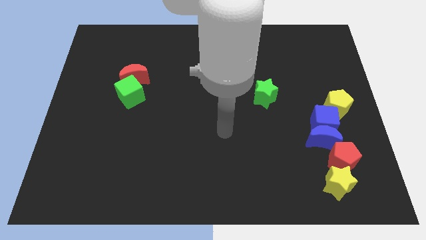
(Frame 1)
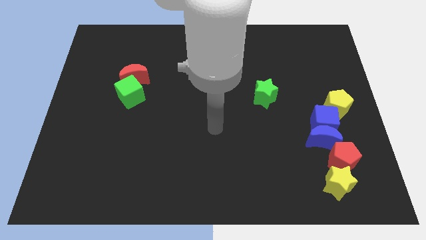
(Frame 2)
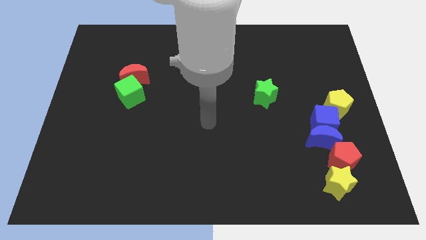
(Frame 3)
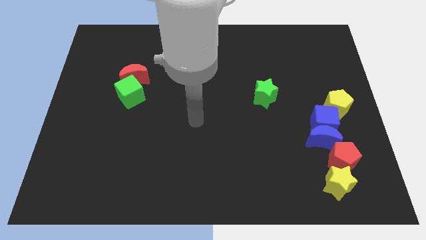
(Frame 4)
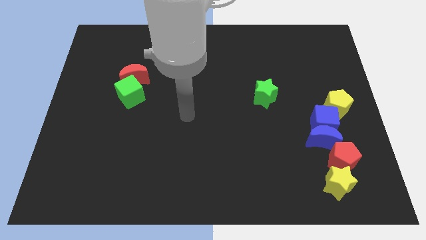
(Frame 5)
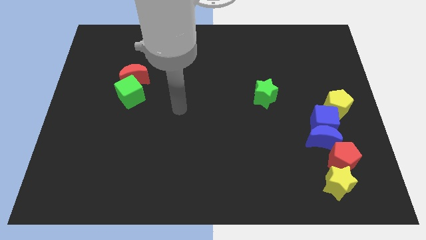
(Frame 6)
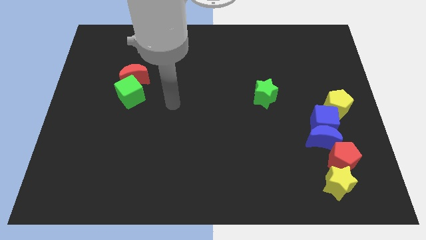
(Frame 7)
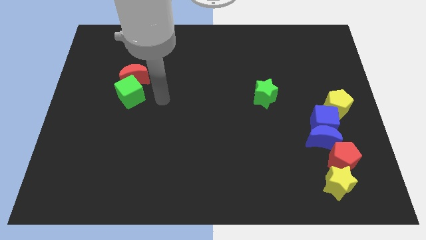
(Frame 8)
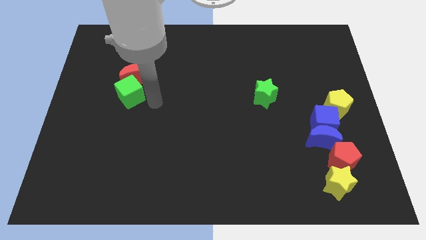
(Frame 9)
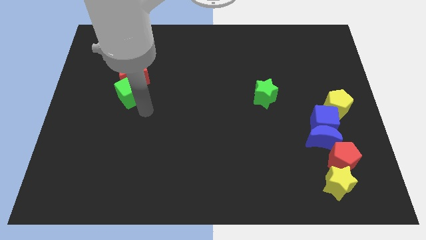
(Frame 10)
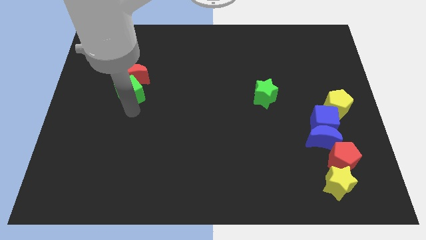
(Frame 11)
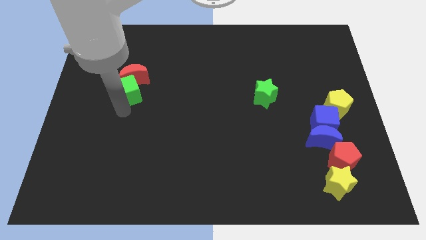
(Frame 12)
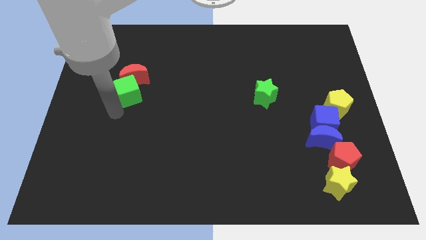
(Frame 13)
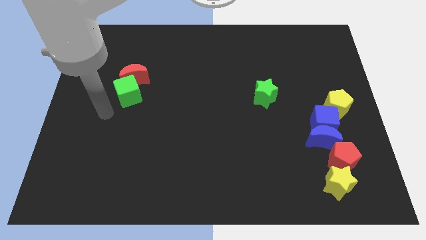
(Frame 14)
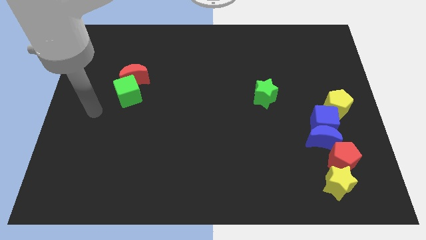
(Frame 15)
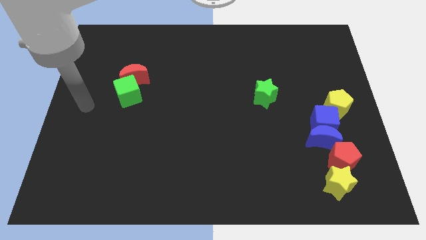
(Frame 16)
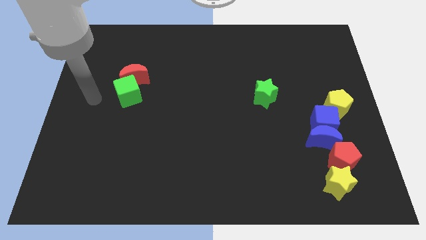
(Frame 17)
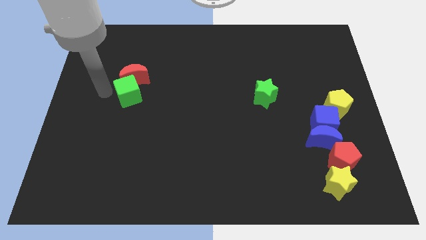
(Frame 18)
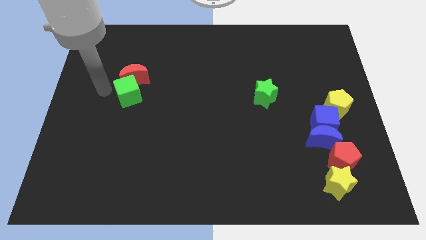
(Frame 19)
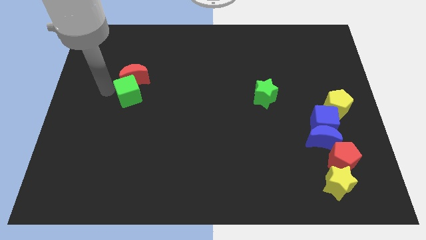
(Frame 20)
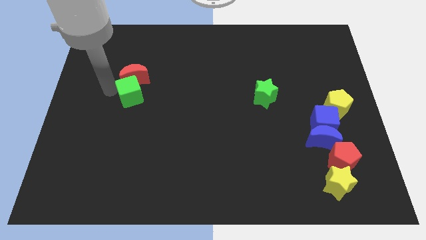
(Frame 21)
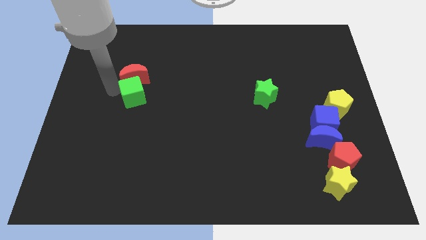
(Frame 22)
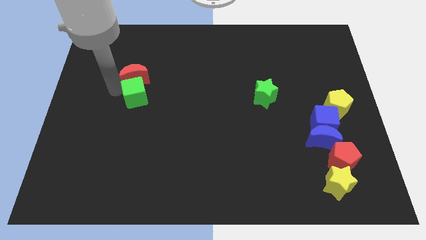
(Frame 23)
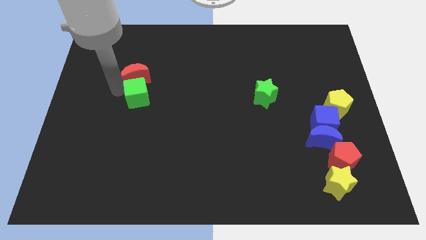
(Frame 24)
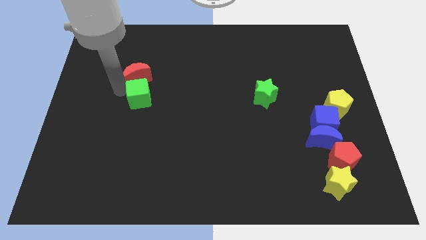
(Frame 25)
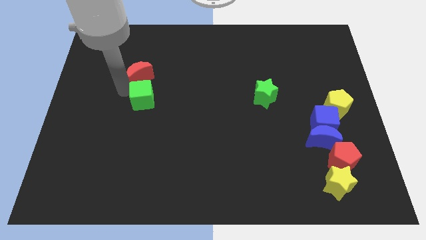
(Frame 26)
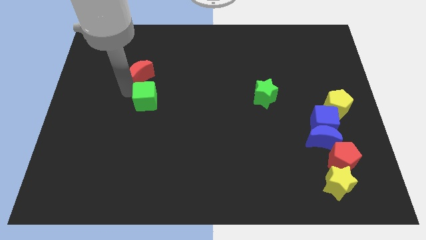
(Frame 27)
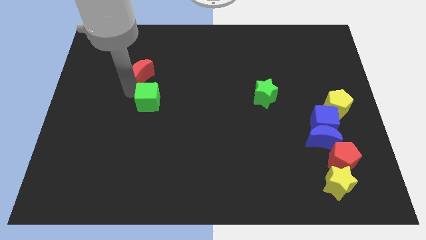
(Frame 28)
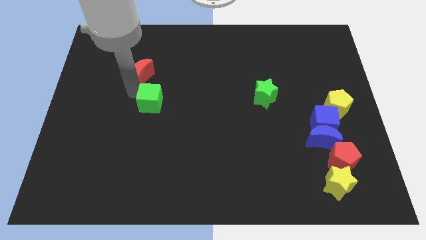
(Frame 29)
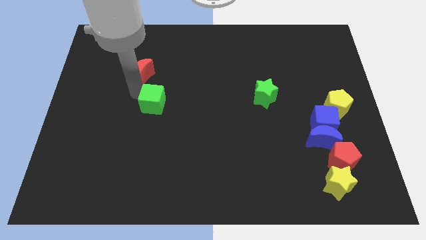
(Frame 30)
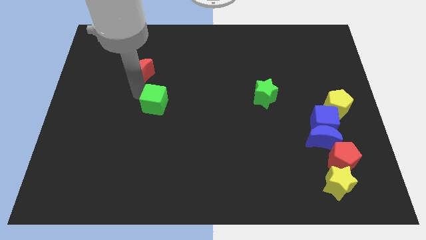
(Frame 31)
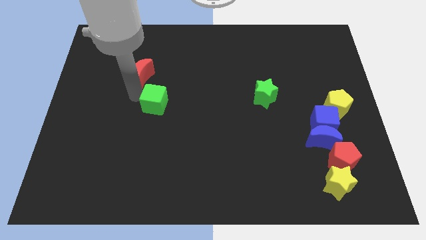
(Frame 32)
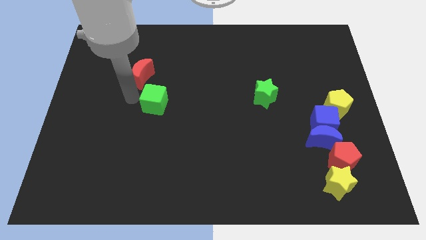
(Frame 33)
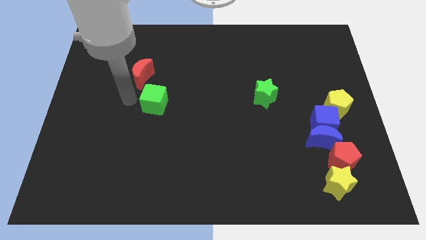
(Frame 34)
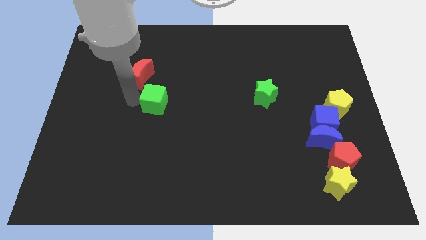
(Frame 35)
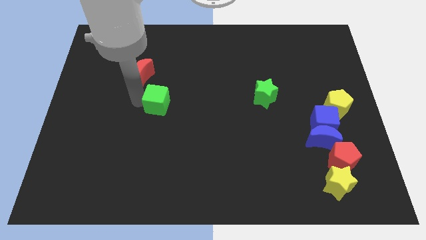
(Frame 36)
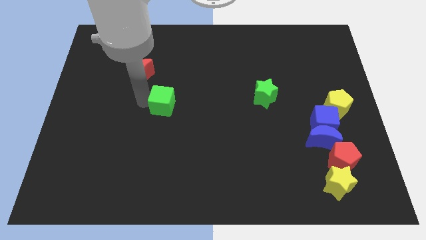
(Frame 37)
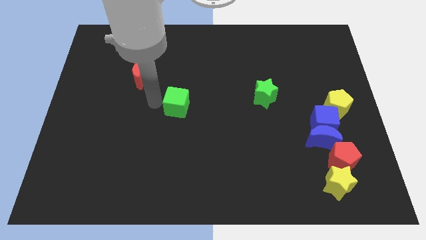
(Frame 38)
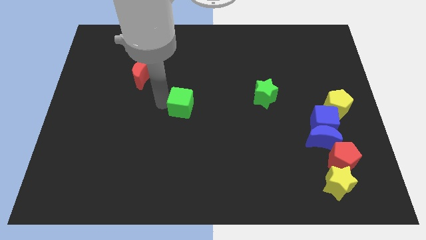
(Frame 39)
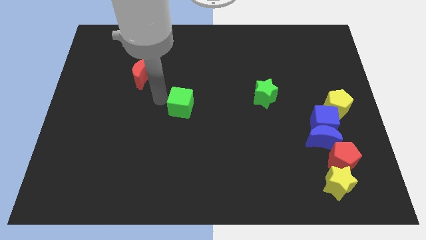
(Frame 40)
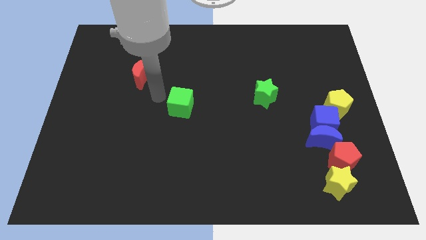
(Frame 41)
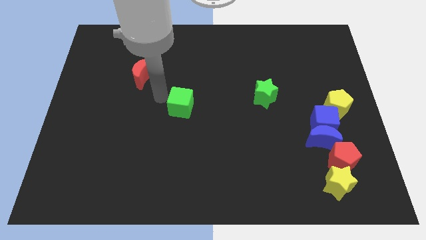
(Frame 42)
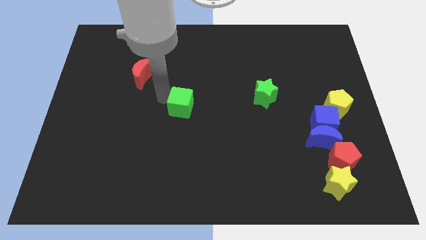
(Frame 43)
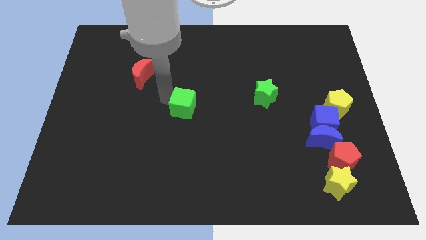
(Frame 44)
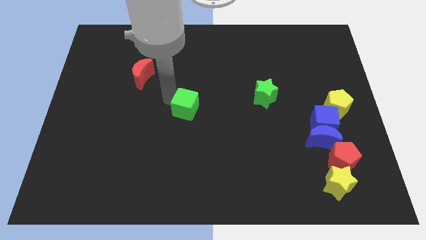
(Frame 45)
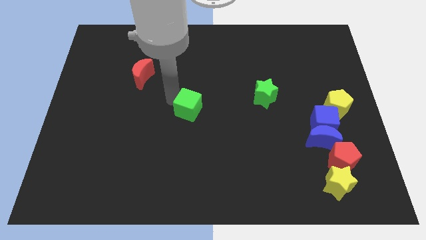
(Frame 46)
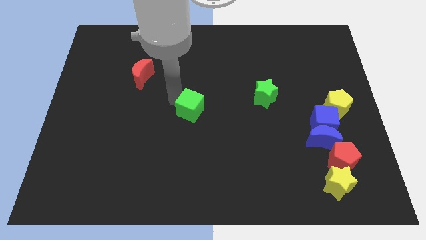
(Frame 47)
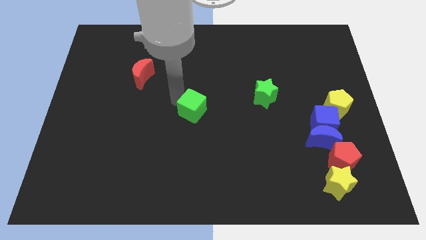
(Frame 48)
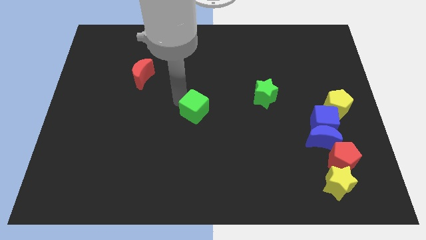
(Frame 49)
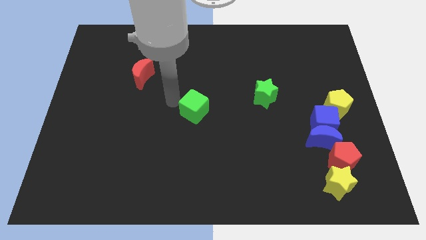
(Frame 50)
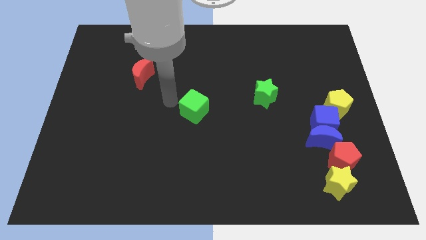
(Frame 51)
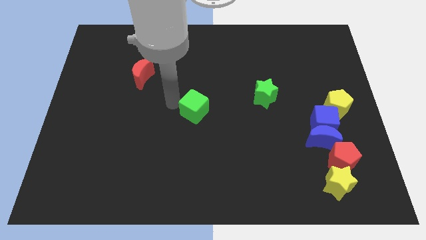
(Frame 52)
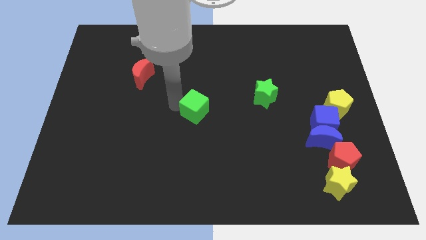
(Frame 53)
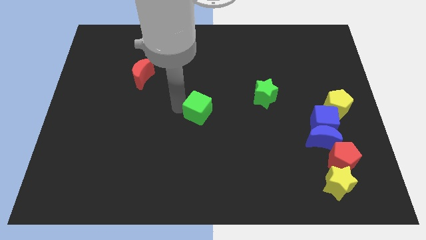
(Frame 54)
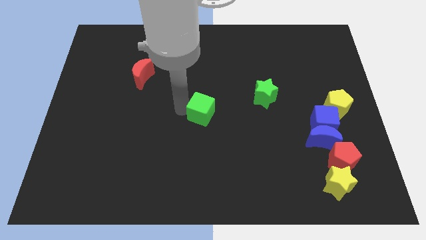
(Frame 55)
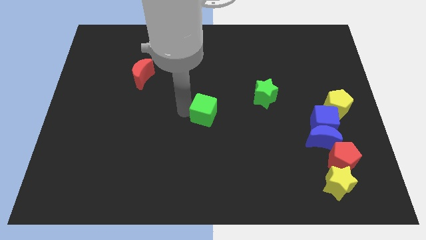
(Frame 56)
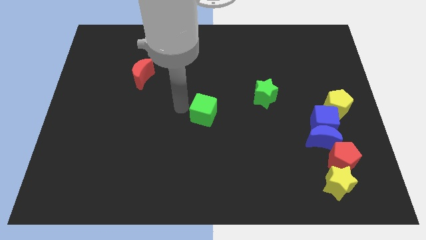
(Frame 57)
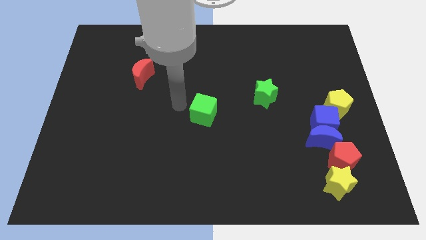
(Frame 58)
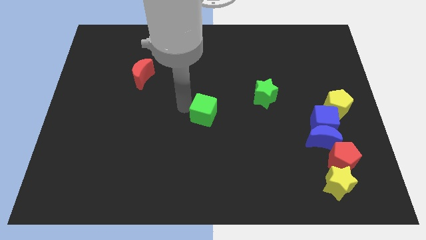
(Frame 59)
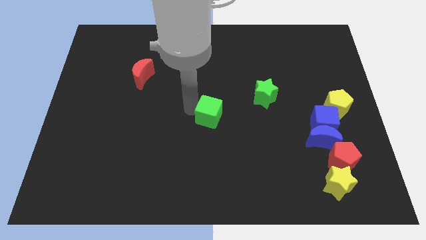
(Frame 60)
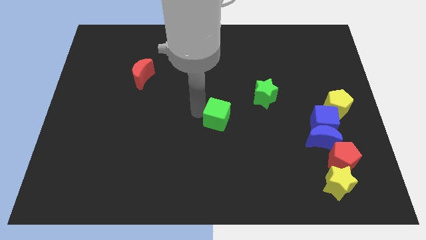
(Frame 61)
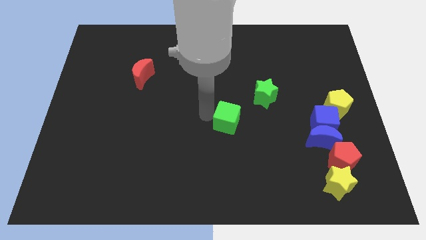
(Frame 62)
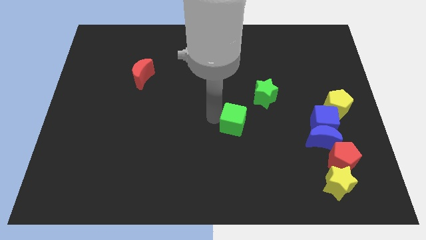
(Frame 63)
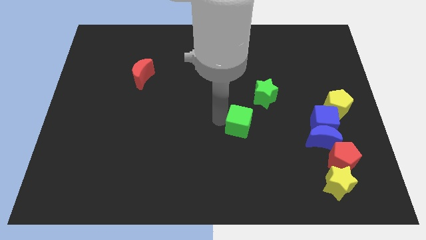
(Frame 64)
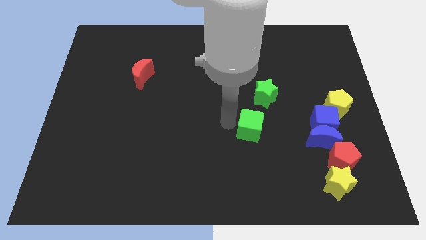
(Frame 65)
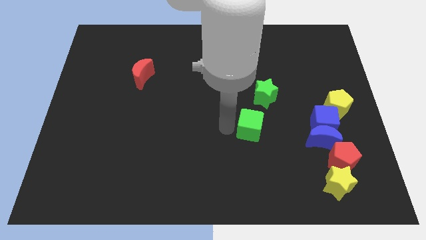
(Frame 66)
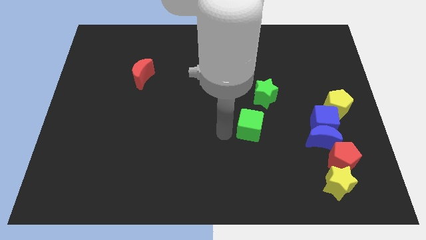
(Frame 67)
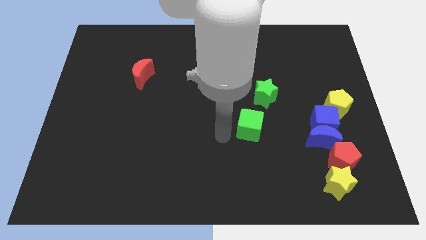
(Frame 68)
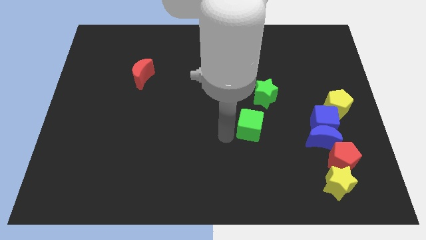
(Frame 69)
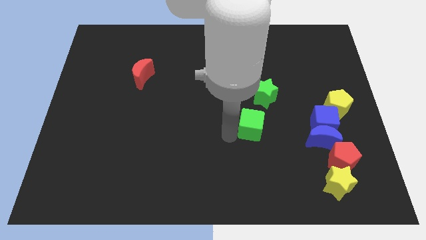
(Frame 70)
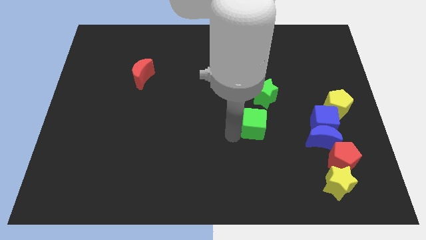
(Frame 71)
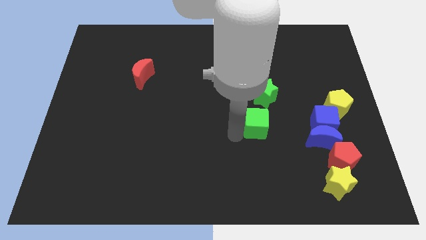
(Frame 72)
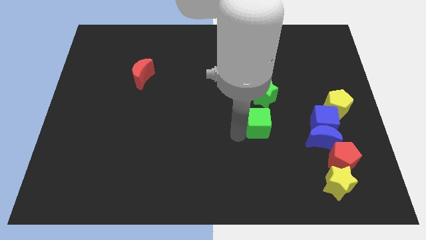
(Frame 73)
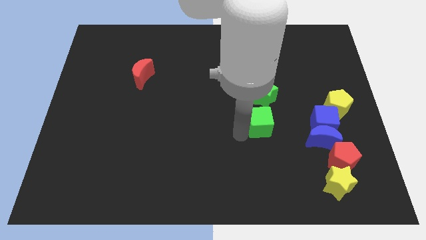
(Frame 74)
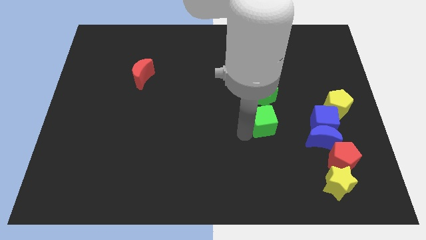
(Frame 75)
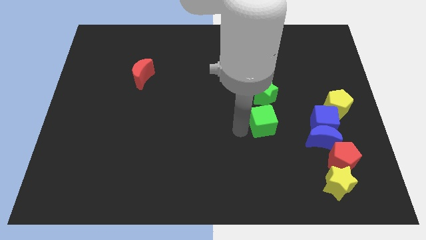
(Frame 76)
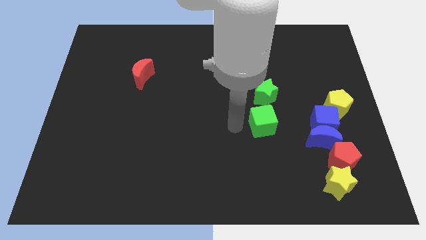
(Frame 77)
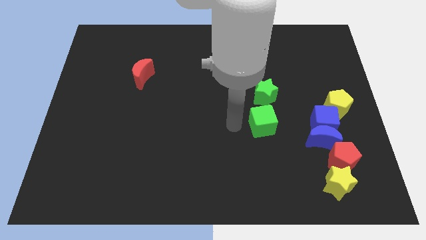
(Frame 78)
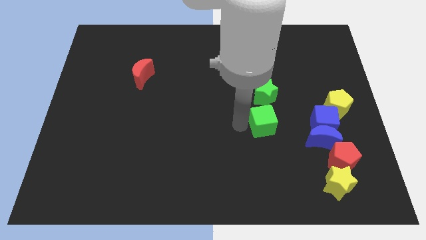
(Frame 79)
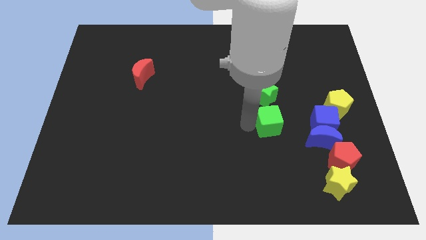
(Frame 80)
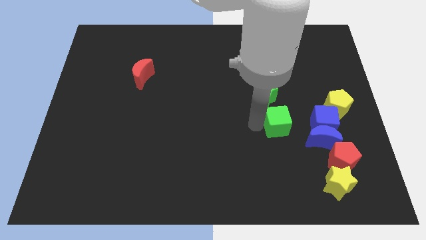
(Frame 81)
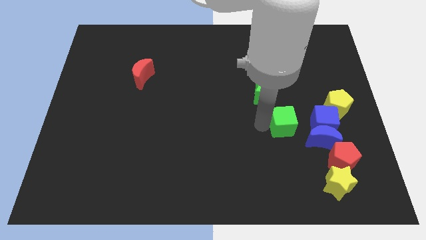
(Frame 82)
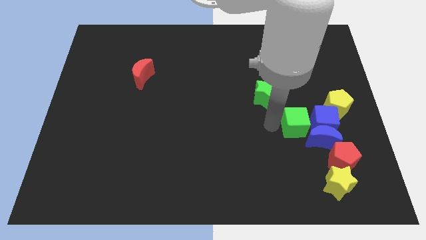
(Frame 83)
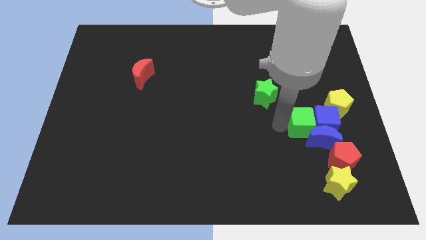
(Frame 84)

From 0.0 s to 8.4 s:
move the green cube towards the blue cube
